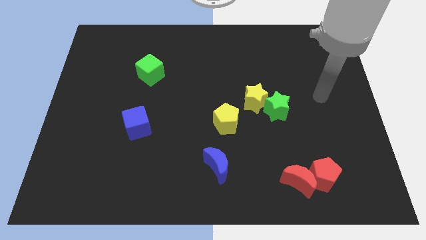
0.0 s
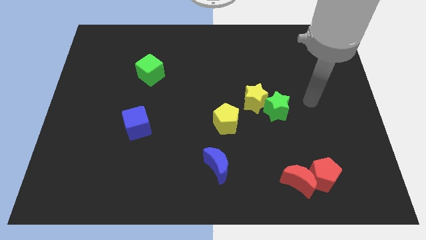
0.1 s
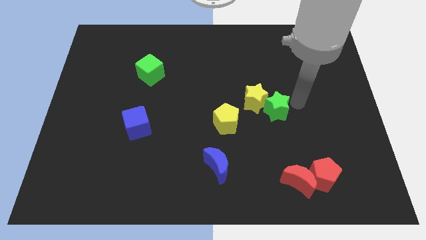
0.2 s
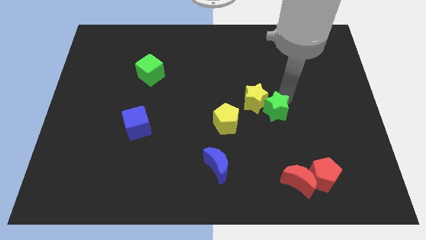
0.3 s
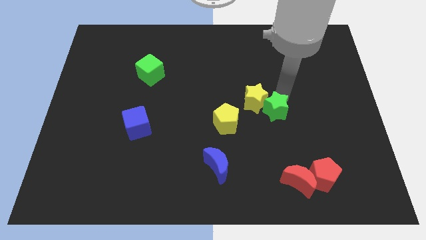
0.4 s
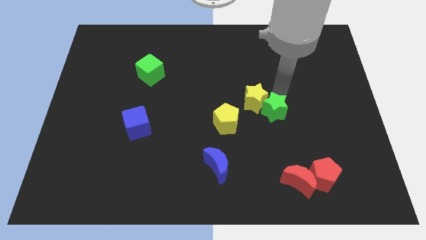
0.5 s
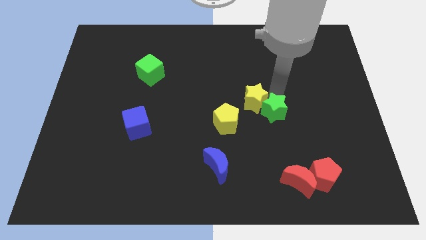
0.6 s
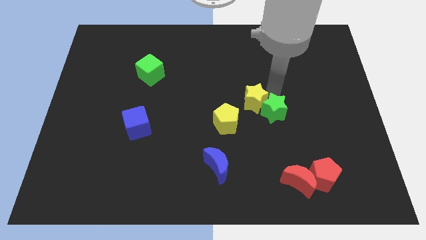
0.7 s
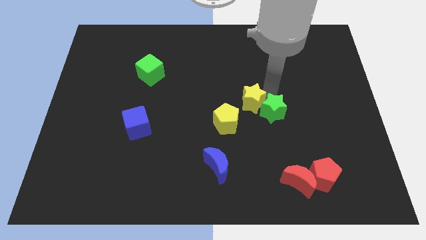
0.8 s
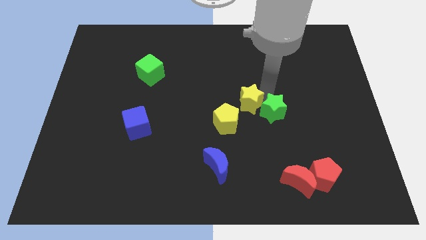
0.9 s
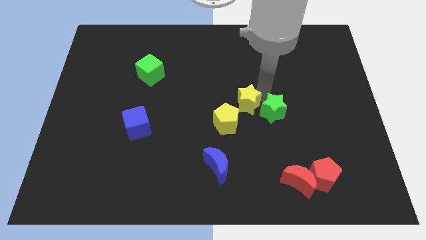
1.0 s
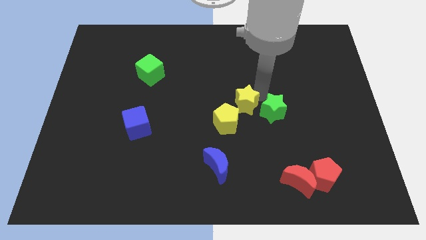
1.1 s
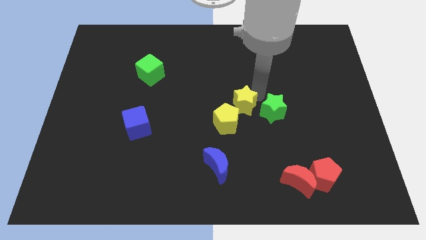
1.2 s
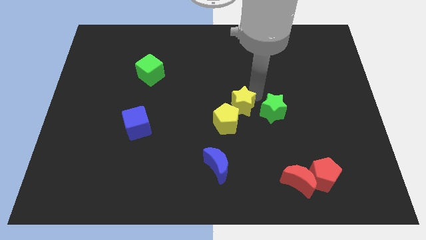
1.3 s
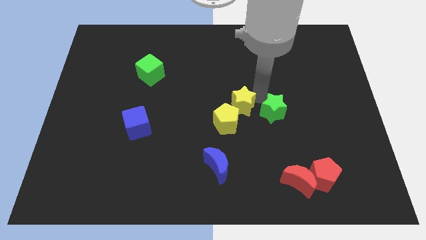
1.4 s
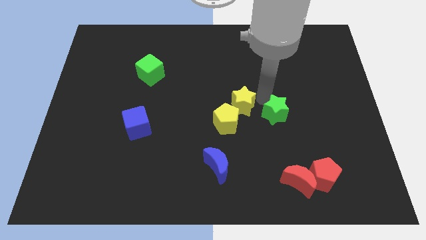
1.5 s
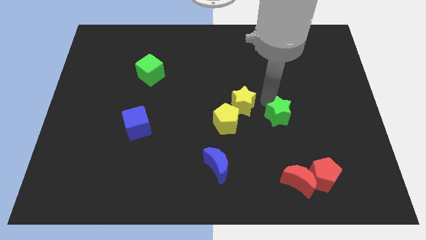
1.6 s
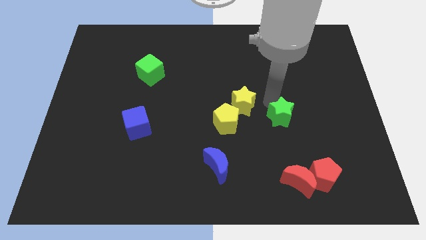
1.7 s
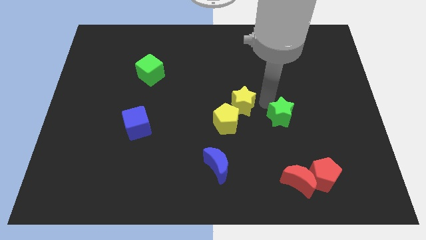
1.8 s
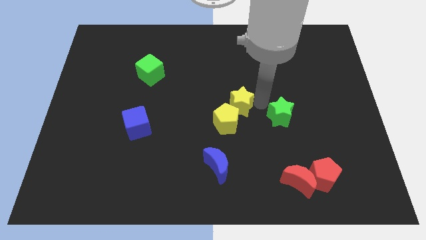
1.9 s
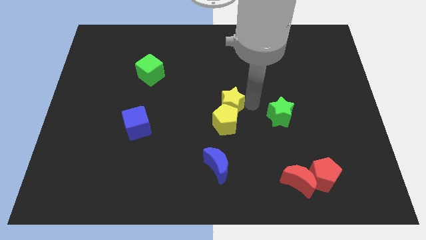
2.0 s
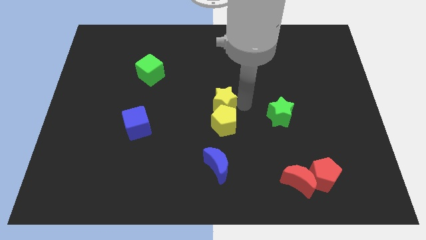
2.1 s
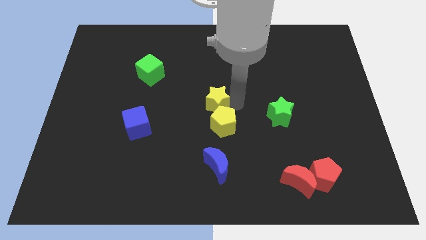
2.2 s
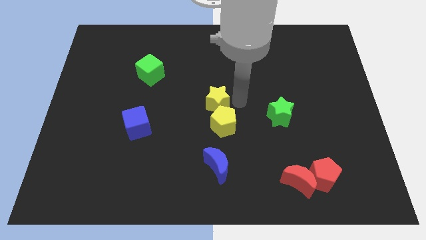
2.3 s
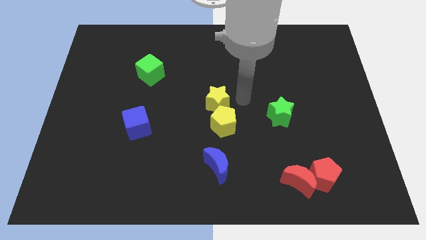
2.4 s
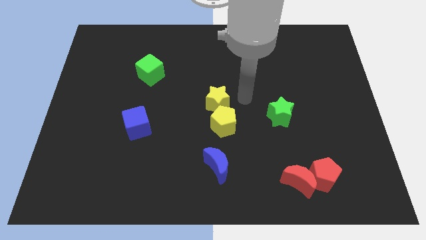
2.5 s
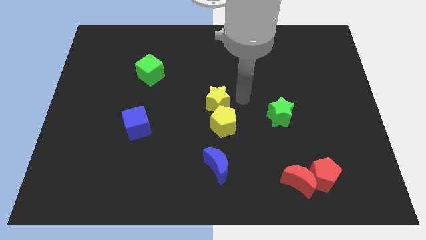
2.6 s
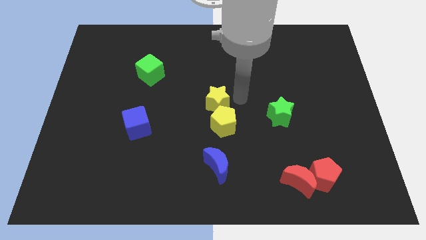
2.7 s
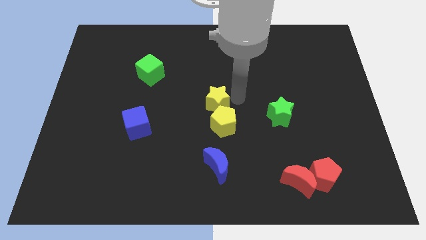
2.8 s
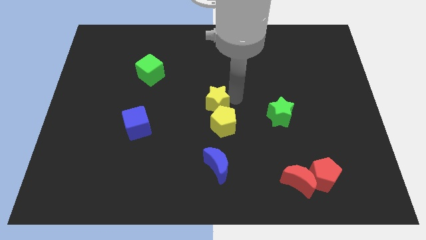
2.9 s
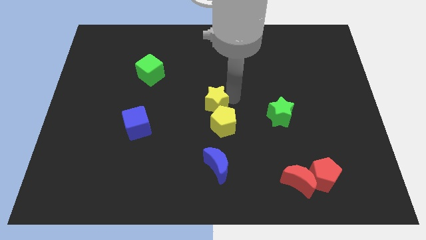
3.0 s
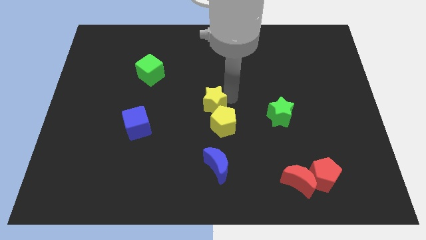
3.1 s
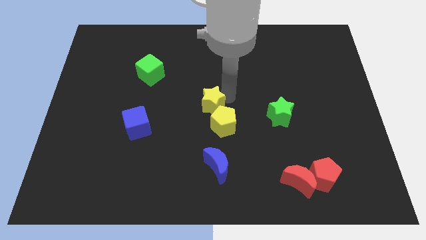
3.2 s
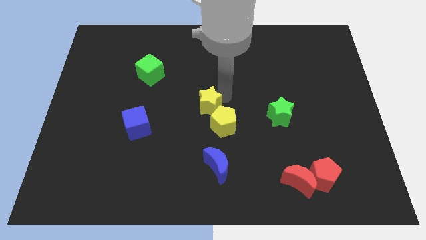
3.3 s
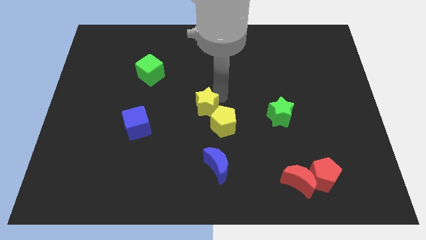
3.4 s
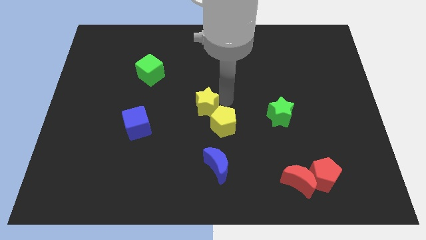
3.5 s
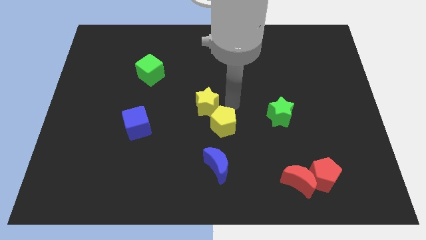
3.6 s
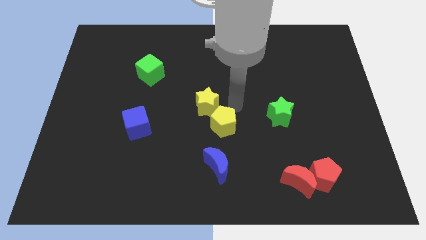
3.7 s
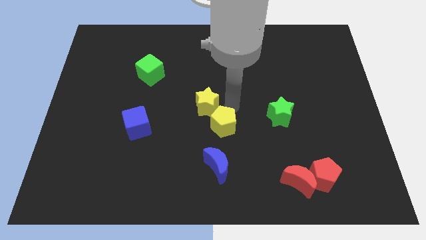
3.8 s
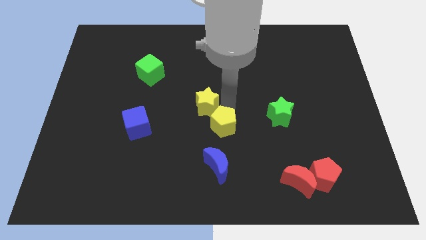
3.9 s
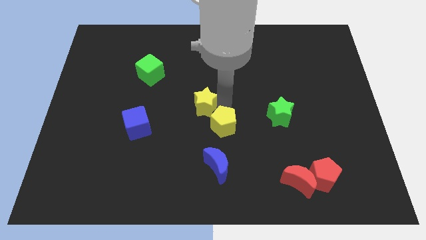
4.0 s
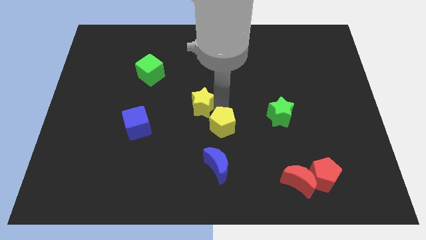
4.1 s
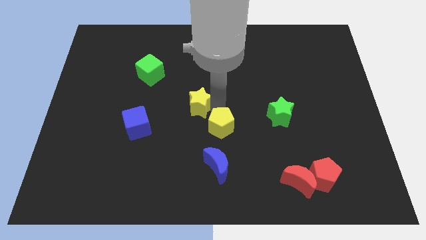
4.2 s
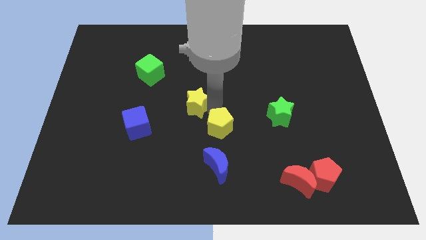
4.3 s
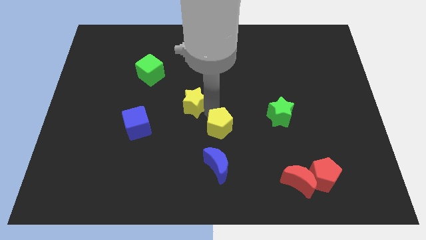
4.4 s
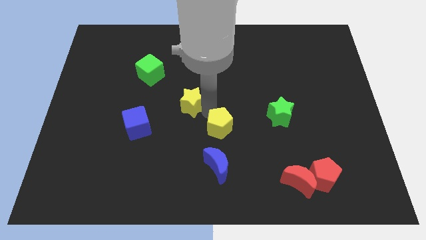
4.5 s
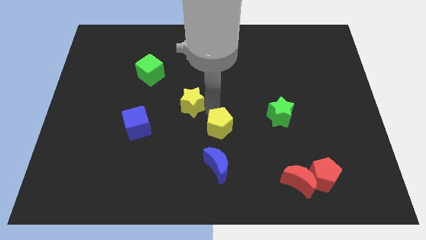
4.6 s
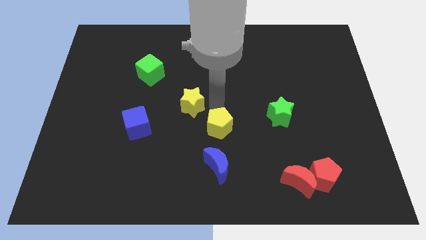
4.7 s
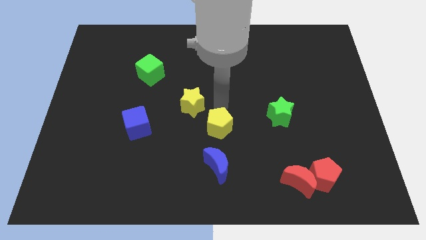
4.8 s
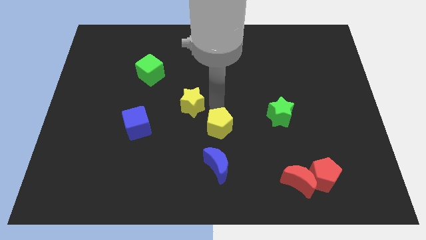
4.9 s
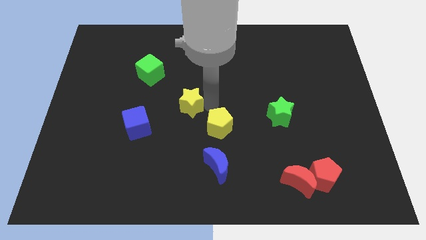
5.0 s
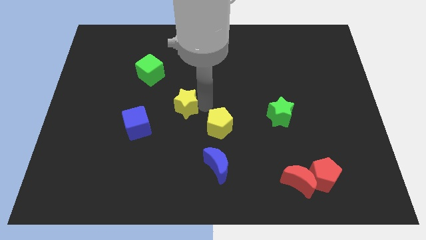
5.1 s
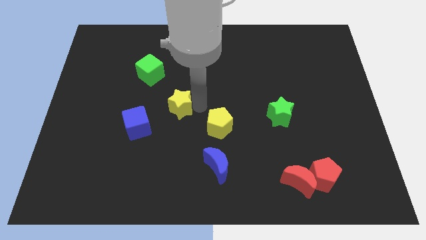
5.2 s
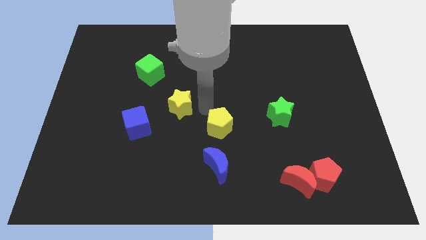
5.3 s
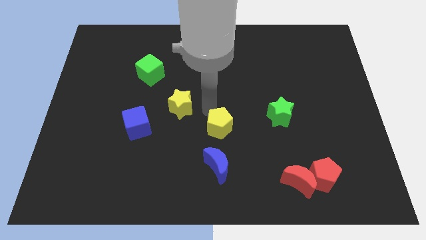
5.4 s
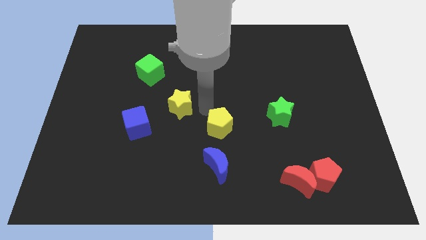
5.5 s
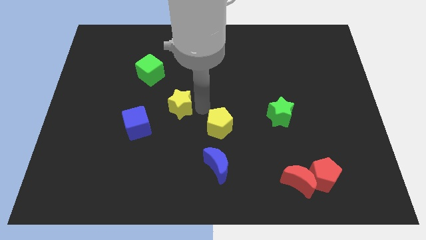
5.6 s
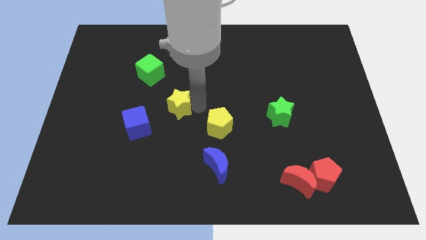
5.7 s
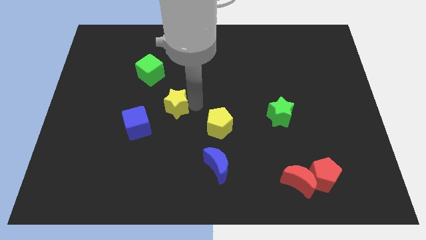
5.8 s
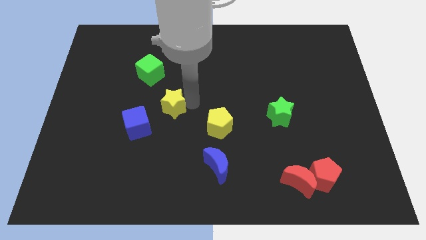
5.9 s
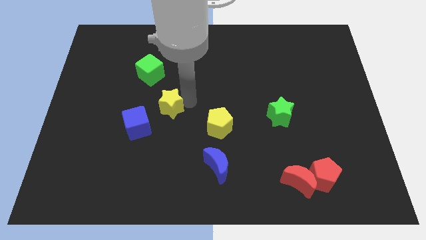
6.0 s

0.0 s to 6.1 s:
push the yellow star left

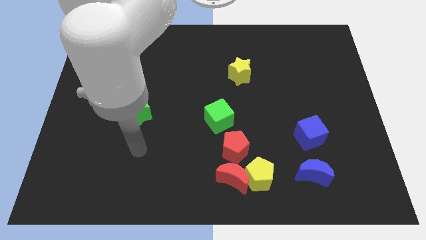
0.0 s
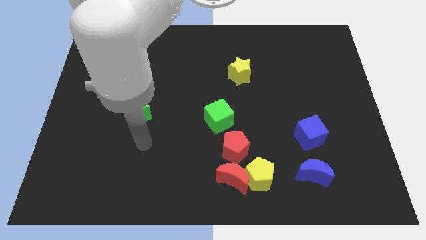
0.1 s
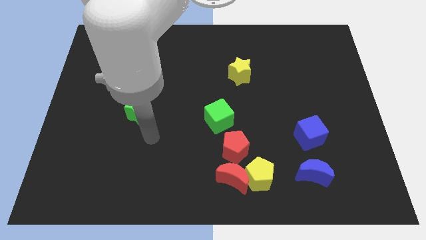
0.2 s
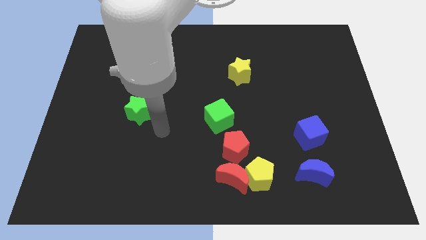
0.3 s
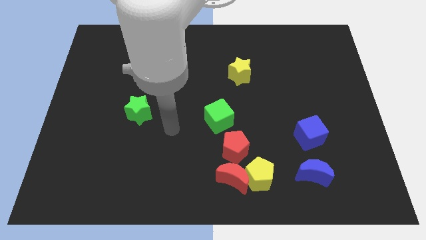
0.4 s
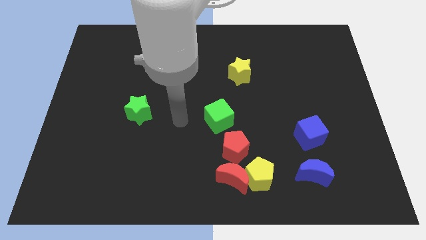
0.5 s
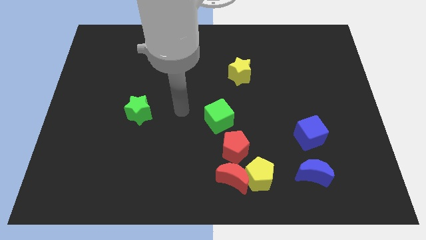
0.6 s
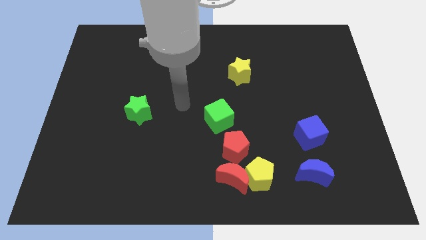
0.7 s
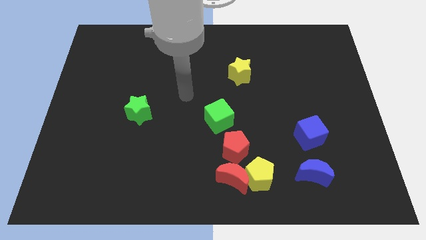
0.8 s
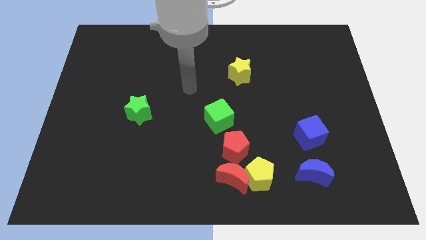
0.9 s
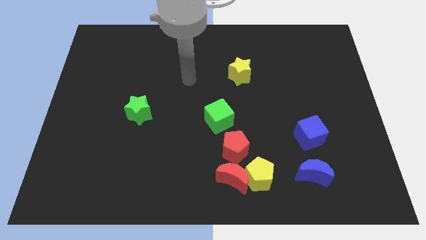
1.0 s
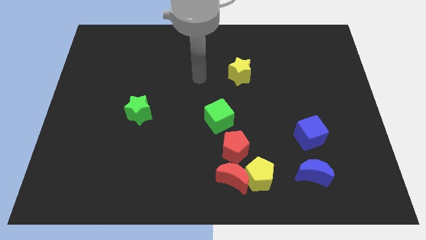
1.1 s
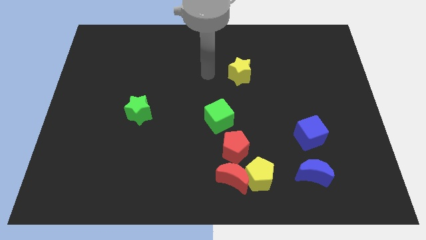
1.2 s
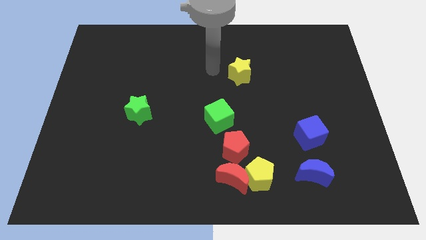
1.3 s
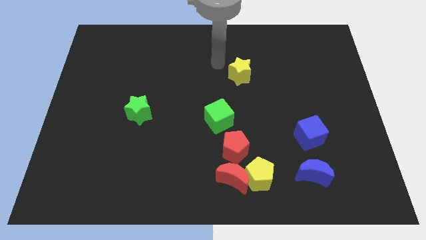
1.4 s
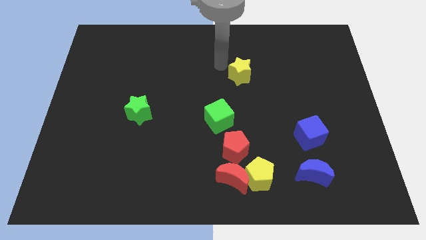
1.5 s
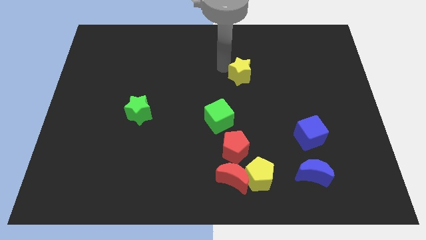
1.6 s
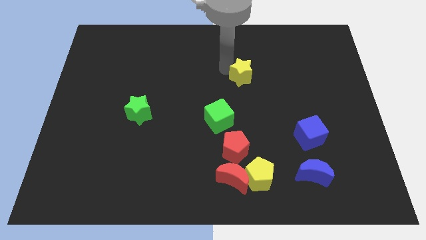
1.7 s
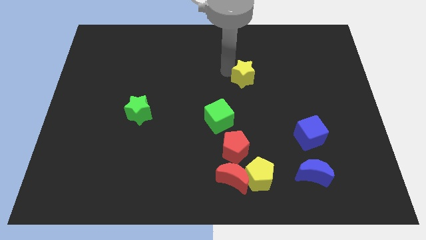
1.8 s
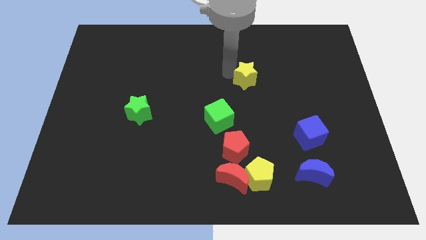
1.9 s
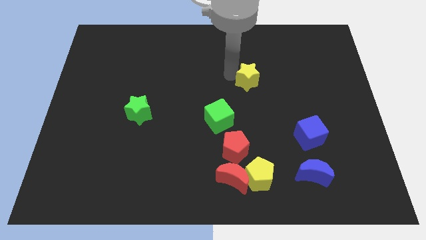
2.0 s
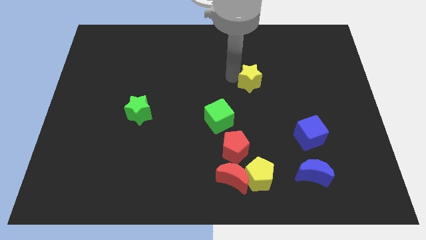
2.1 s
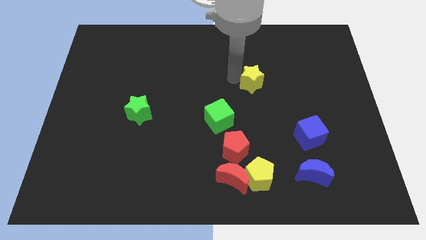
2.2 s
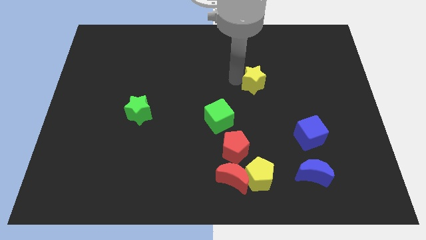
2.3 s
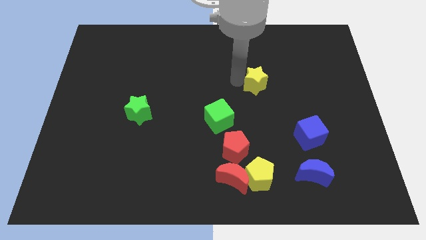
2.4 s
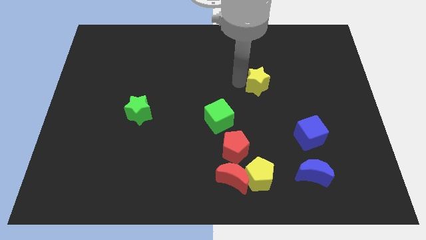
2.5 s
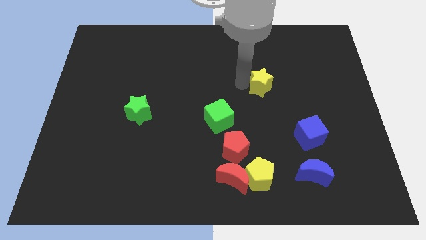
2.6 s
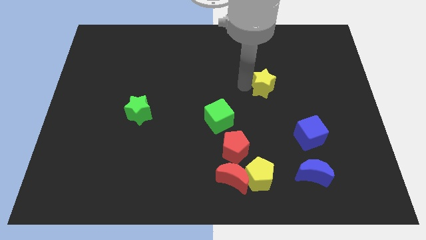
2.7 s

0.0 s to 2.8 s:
slightly push the yellow star downwards and right
